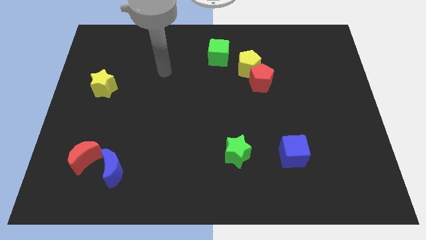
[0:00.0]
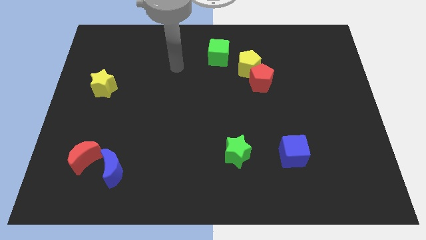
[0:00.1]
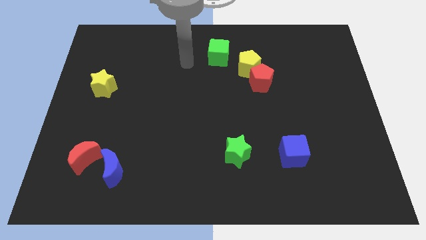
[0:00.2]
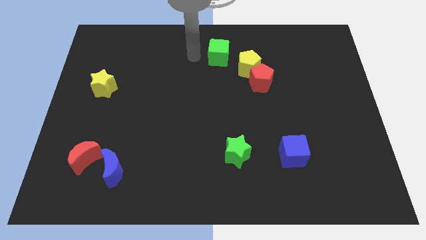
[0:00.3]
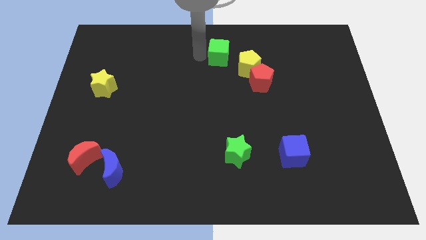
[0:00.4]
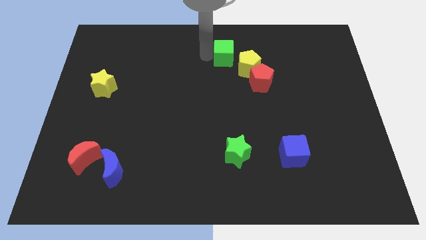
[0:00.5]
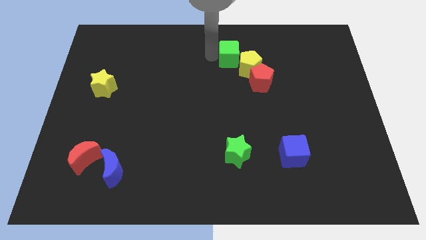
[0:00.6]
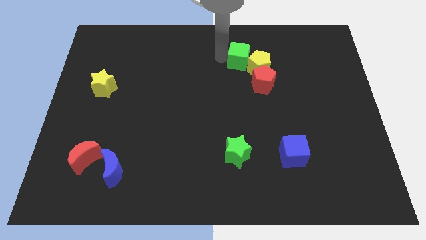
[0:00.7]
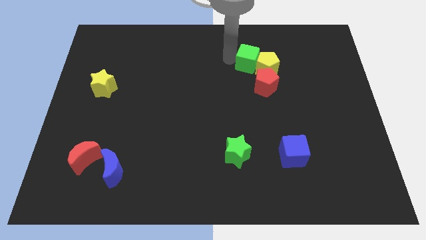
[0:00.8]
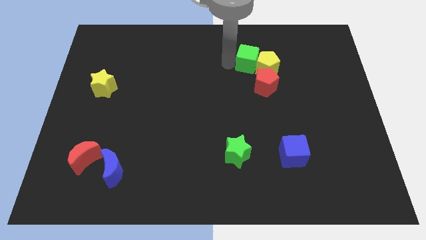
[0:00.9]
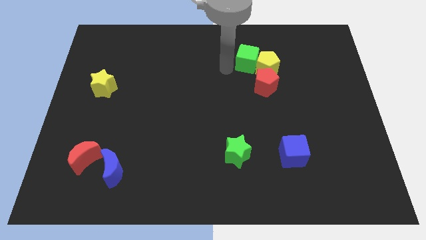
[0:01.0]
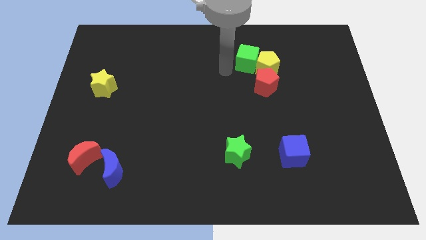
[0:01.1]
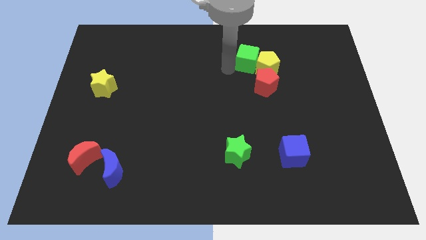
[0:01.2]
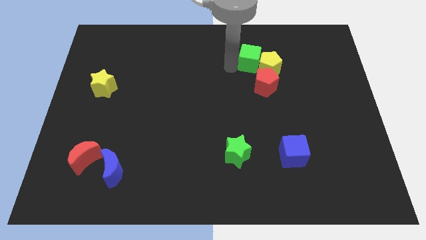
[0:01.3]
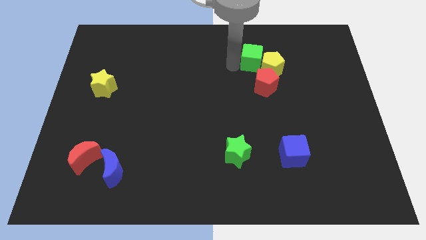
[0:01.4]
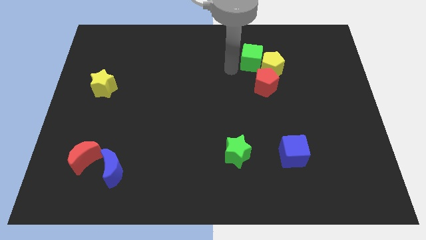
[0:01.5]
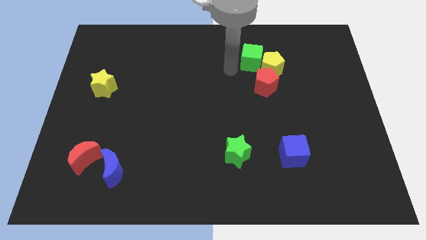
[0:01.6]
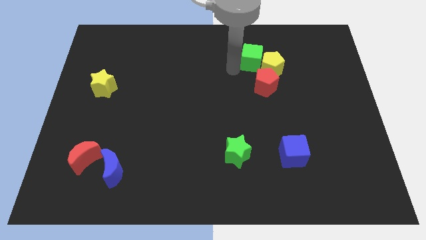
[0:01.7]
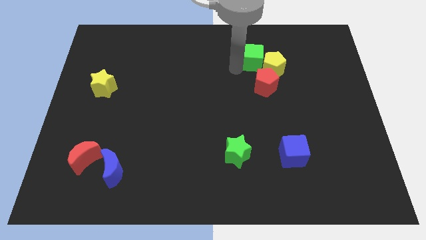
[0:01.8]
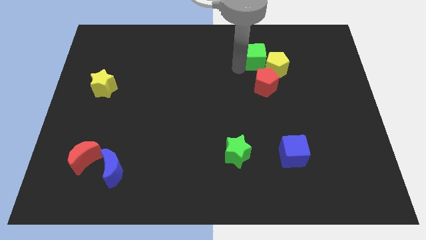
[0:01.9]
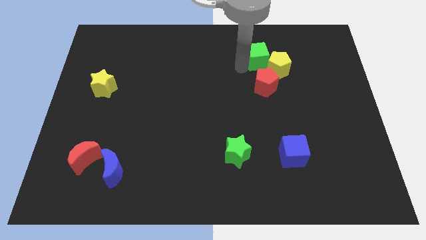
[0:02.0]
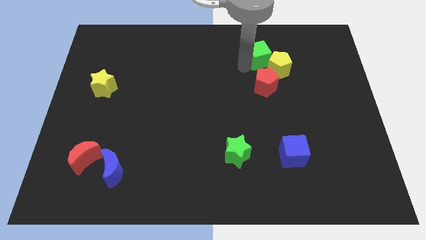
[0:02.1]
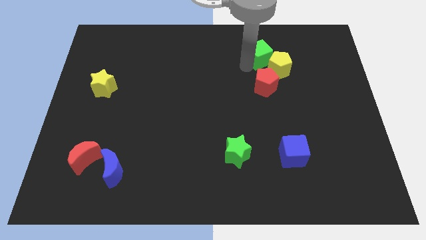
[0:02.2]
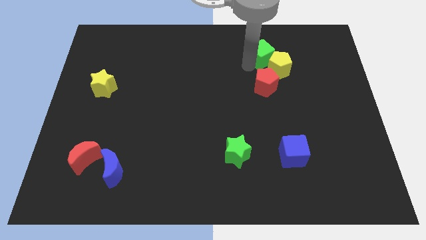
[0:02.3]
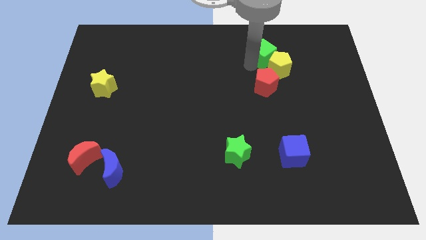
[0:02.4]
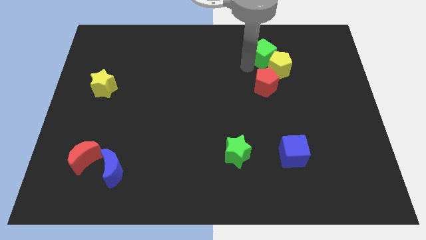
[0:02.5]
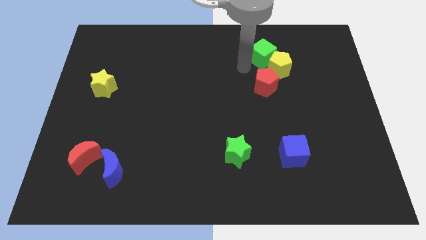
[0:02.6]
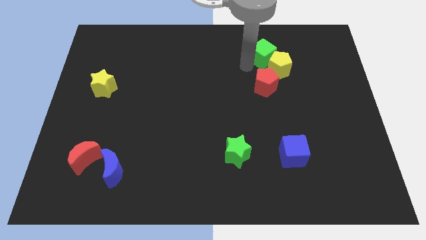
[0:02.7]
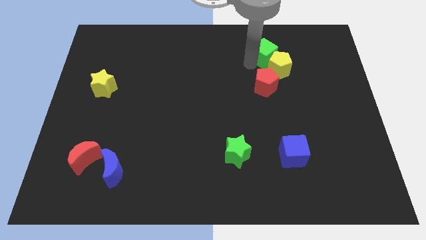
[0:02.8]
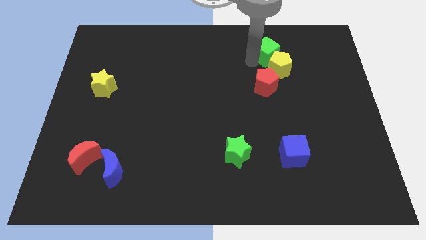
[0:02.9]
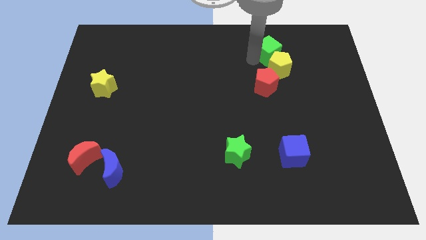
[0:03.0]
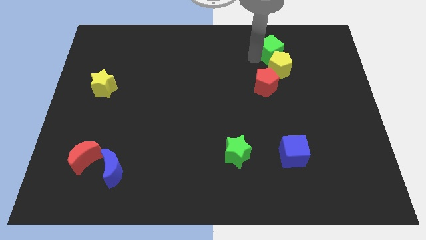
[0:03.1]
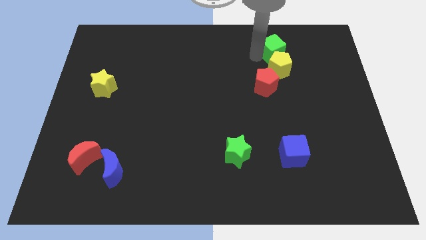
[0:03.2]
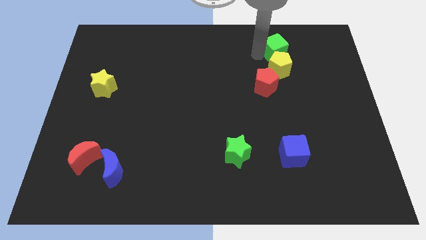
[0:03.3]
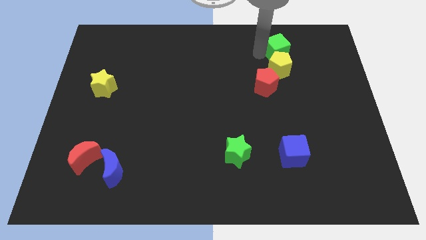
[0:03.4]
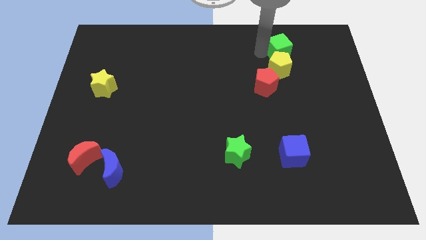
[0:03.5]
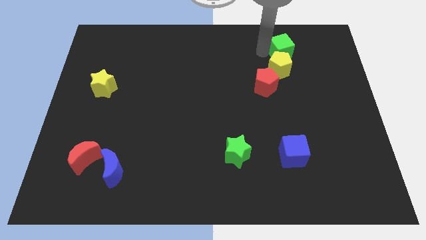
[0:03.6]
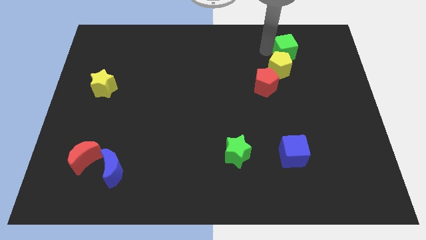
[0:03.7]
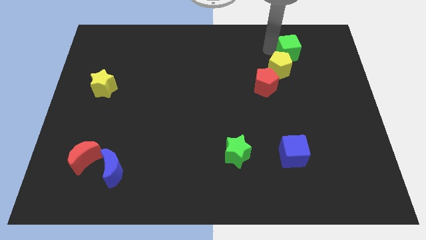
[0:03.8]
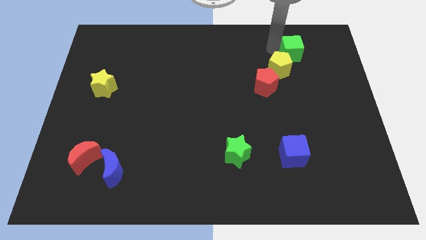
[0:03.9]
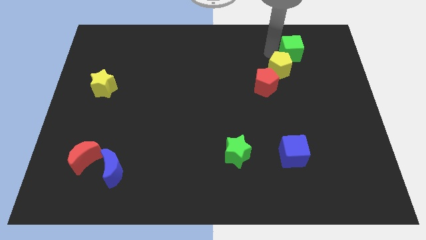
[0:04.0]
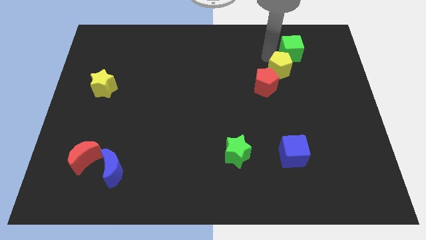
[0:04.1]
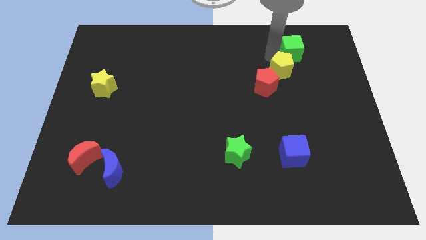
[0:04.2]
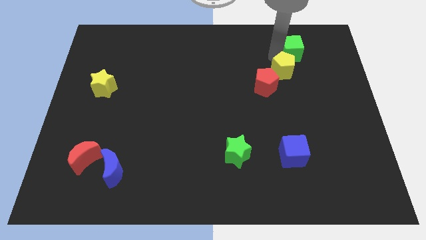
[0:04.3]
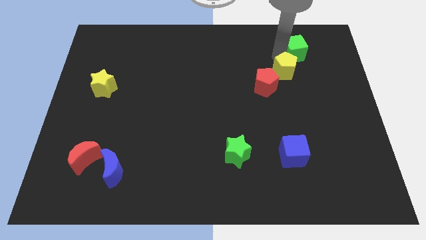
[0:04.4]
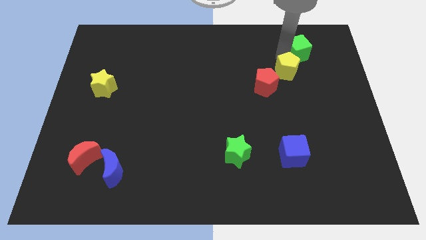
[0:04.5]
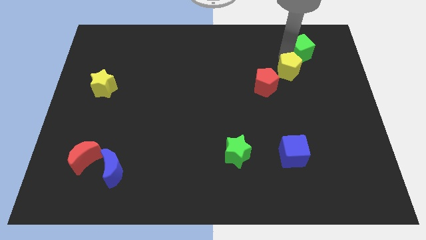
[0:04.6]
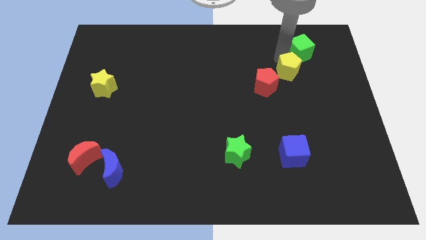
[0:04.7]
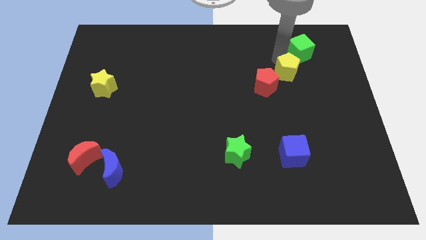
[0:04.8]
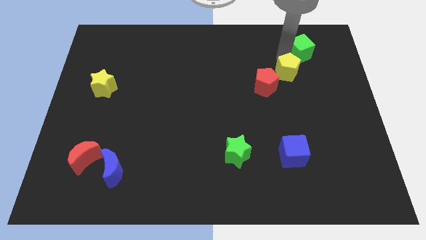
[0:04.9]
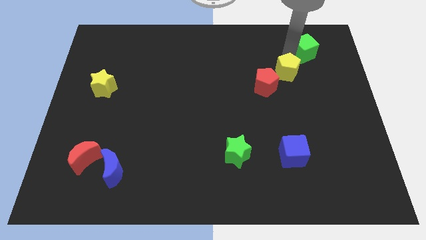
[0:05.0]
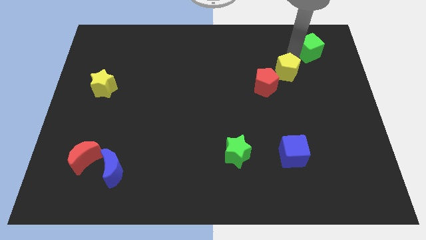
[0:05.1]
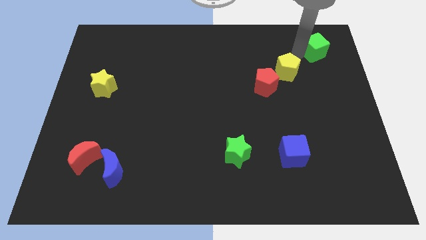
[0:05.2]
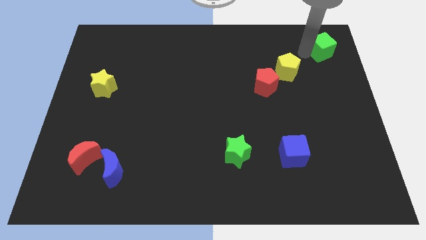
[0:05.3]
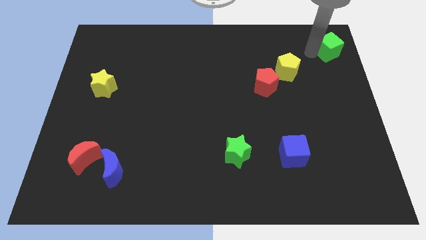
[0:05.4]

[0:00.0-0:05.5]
move the green cube to the top right
